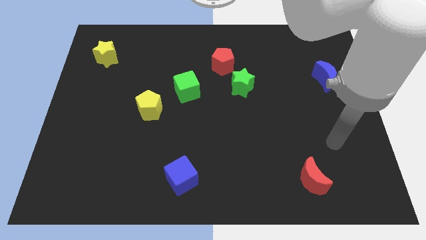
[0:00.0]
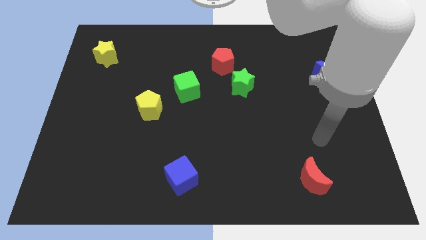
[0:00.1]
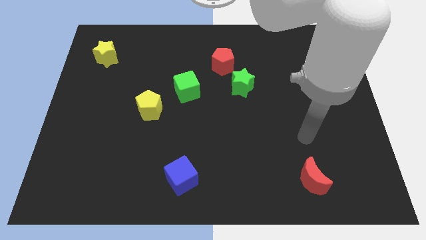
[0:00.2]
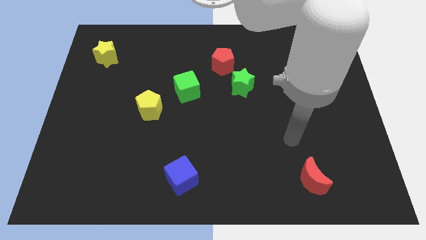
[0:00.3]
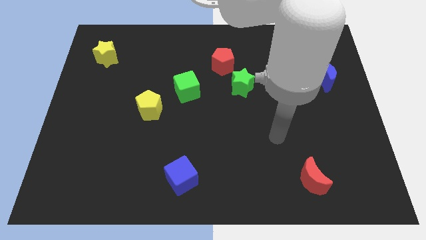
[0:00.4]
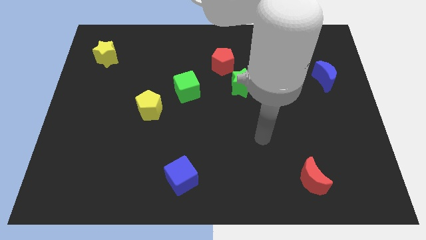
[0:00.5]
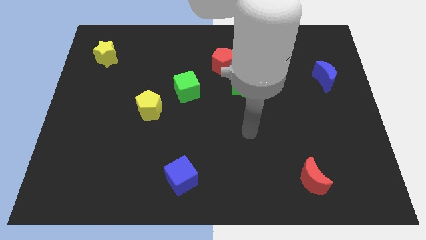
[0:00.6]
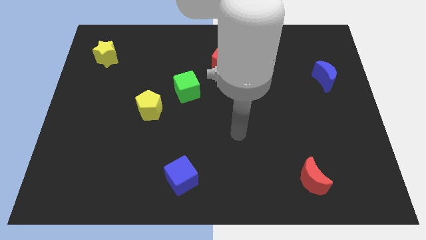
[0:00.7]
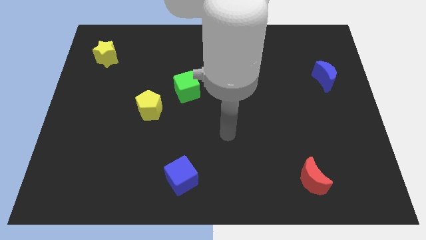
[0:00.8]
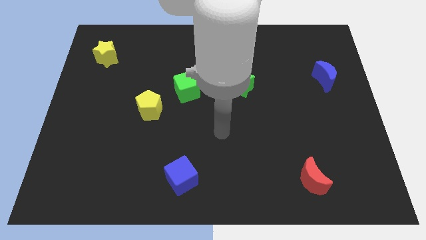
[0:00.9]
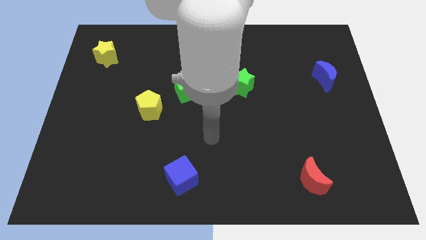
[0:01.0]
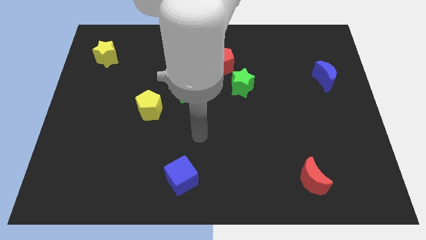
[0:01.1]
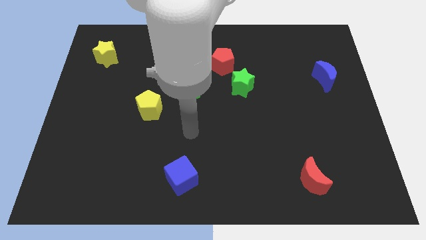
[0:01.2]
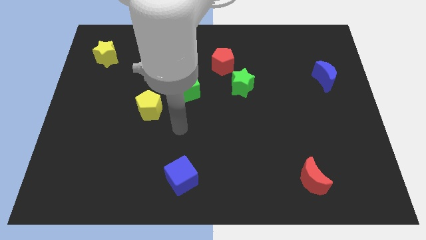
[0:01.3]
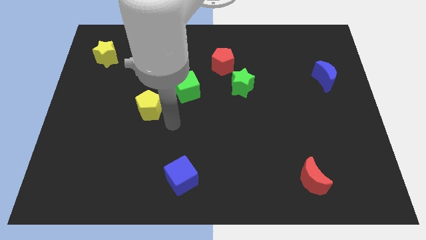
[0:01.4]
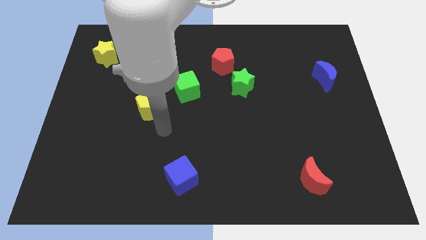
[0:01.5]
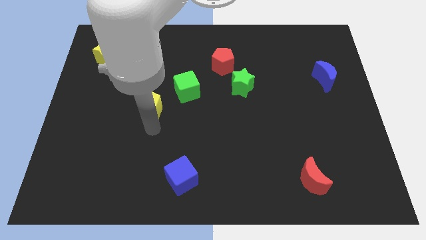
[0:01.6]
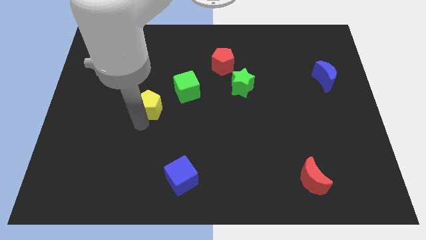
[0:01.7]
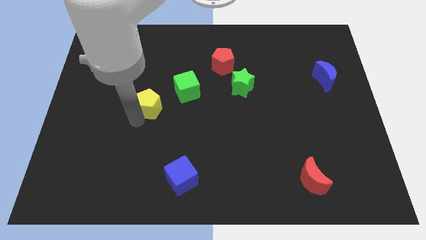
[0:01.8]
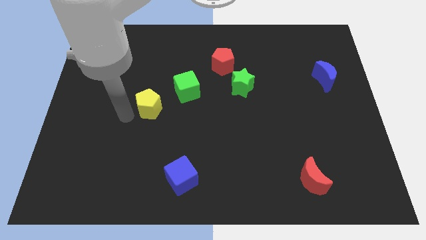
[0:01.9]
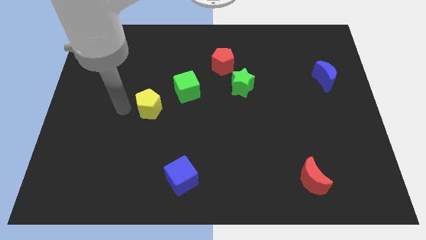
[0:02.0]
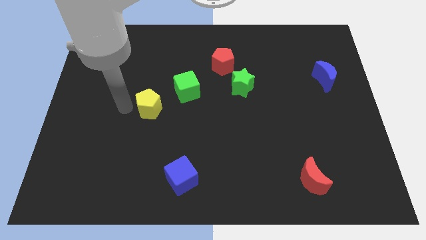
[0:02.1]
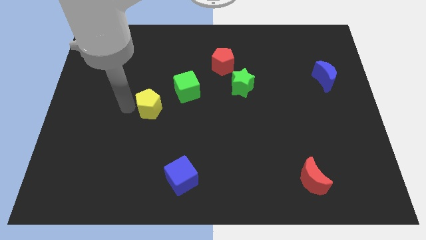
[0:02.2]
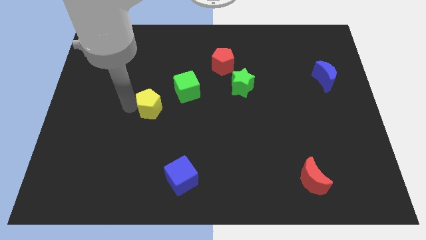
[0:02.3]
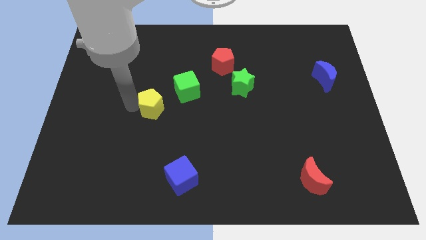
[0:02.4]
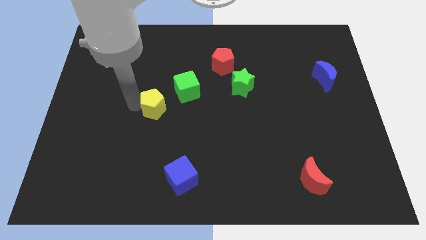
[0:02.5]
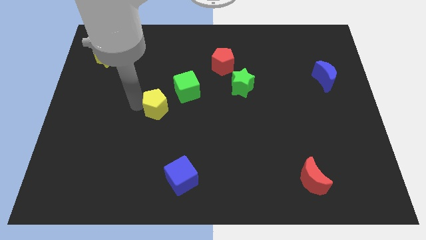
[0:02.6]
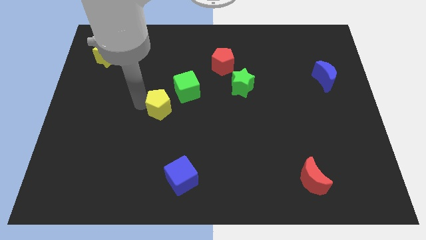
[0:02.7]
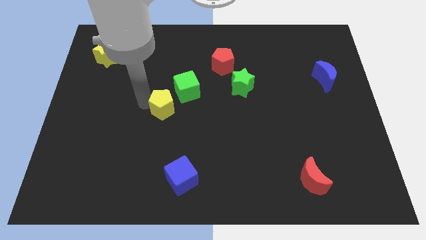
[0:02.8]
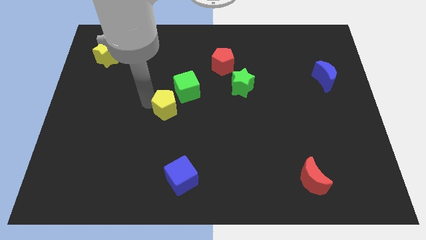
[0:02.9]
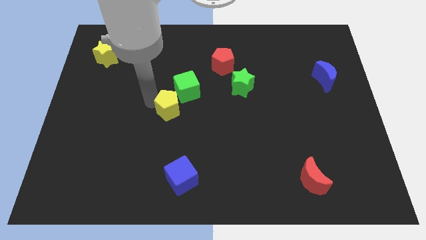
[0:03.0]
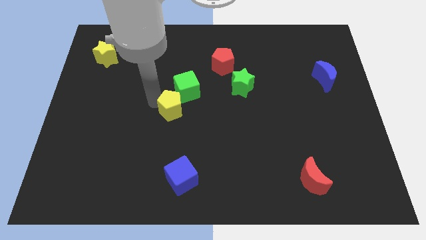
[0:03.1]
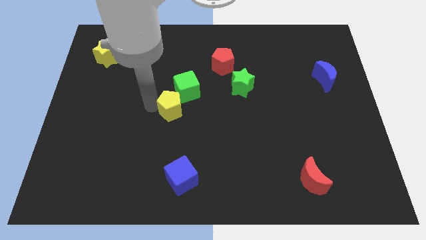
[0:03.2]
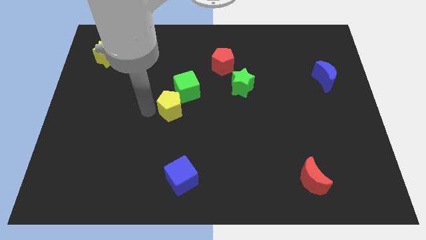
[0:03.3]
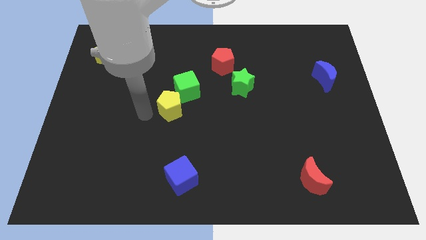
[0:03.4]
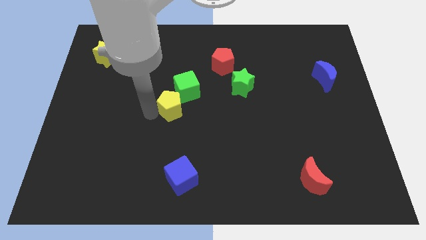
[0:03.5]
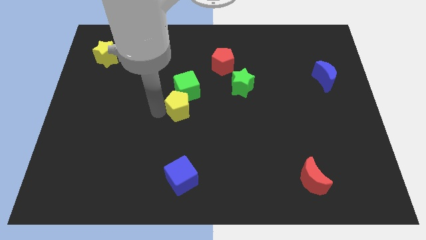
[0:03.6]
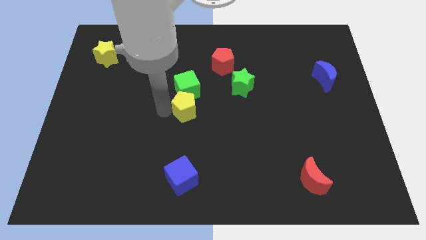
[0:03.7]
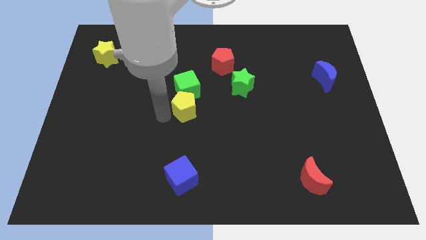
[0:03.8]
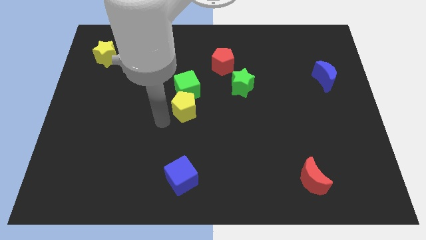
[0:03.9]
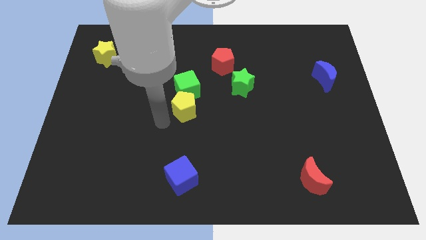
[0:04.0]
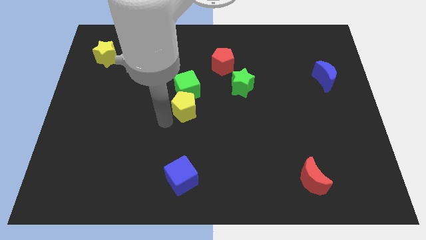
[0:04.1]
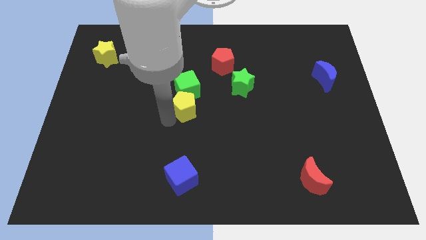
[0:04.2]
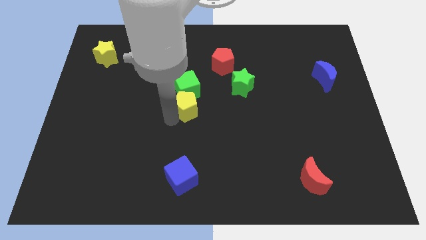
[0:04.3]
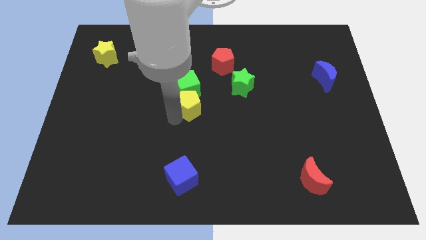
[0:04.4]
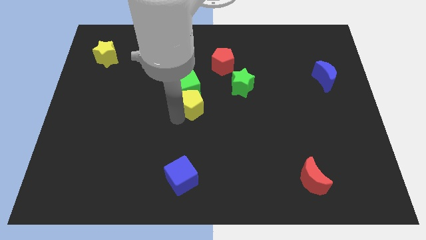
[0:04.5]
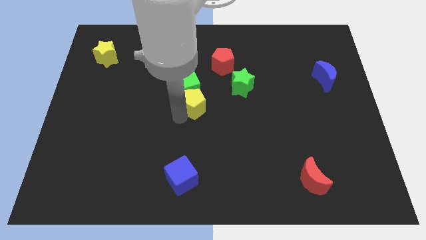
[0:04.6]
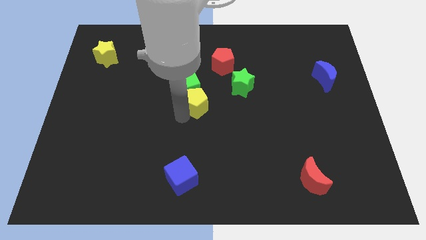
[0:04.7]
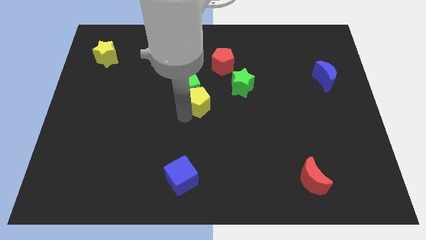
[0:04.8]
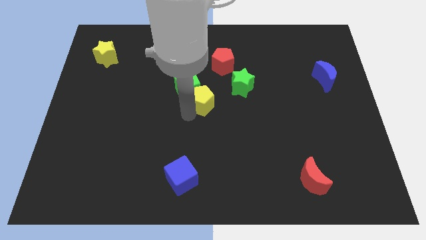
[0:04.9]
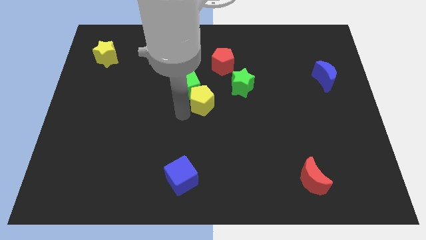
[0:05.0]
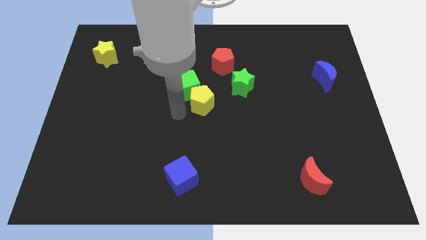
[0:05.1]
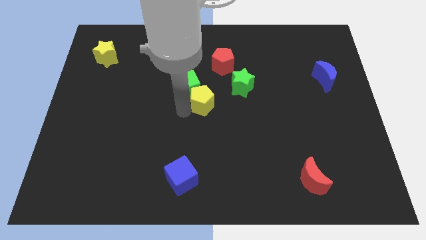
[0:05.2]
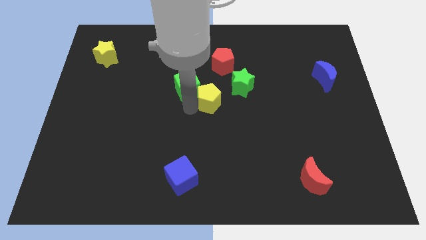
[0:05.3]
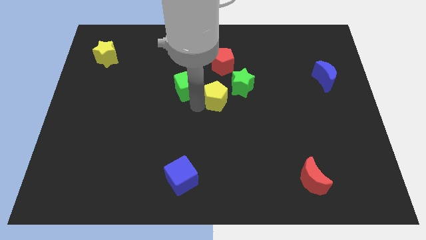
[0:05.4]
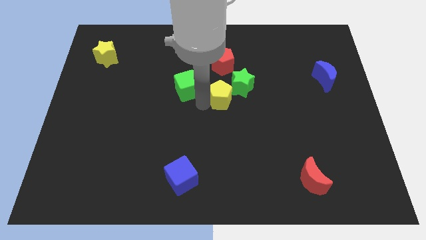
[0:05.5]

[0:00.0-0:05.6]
slide the yellow pentagon towards the green star

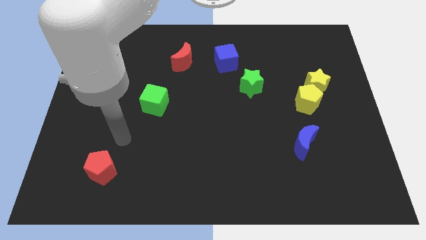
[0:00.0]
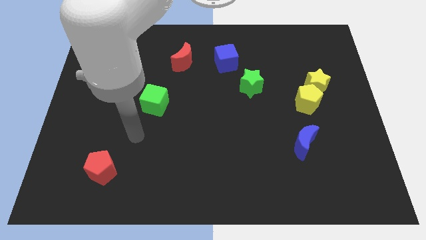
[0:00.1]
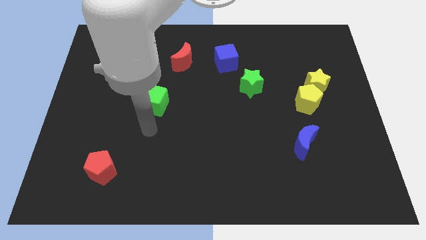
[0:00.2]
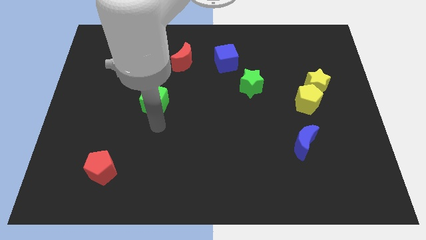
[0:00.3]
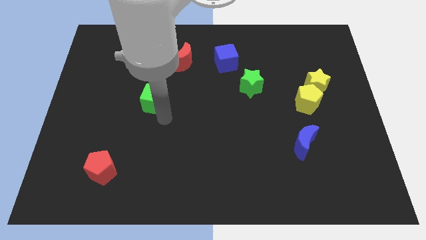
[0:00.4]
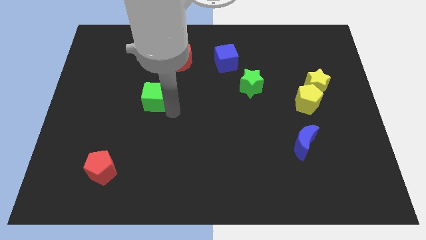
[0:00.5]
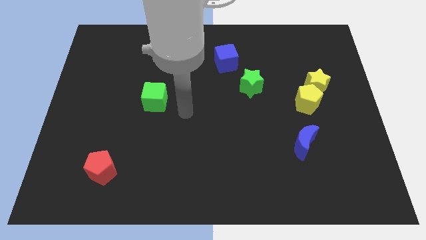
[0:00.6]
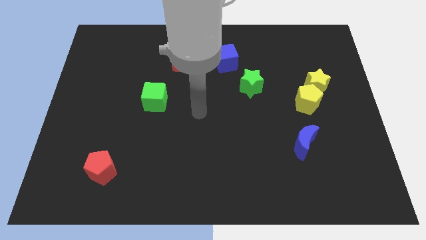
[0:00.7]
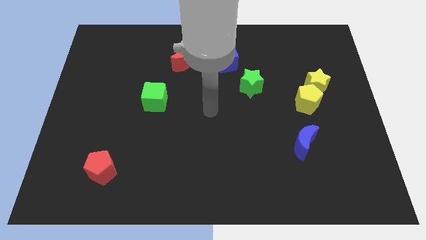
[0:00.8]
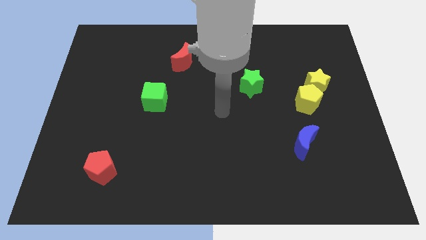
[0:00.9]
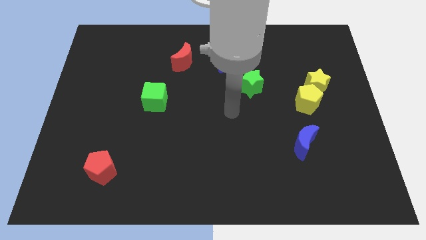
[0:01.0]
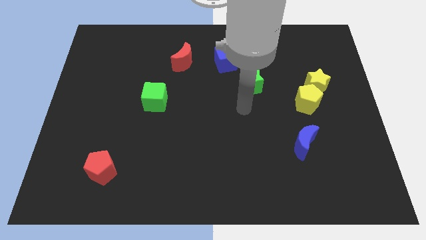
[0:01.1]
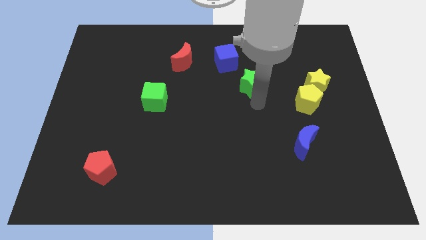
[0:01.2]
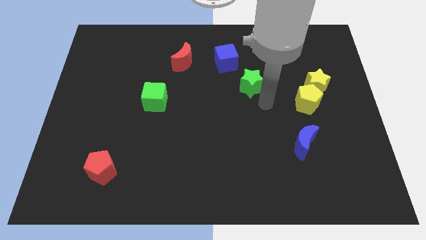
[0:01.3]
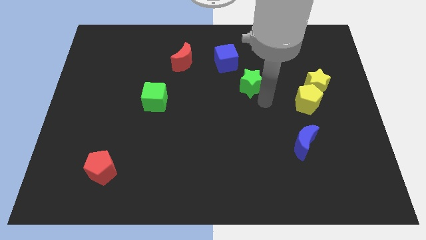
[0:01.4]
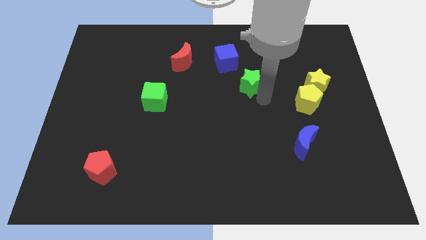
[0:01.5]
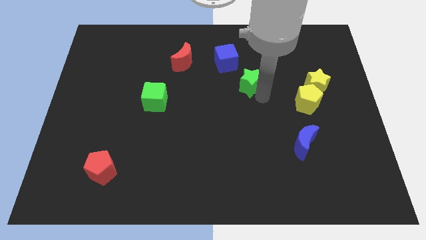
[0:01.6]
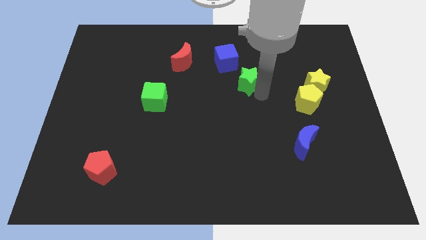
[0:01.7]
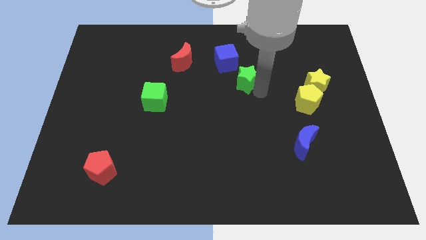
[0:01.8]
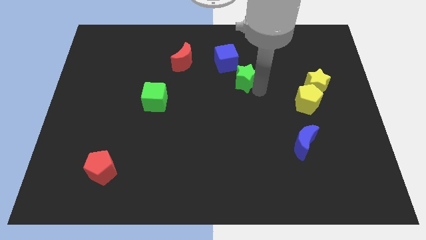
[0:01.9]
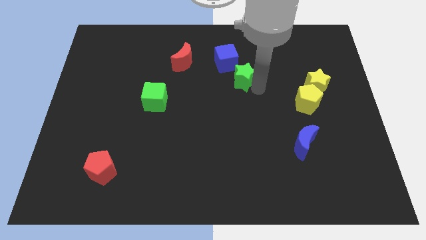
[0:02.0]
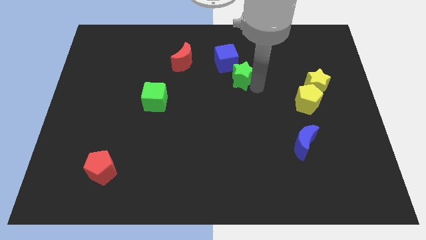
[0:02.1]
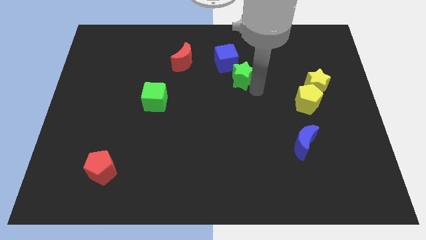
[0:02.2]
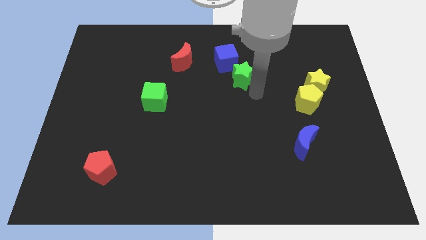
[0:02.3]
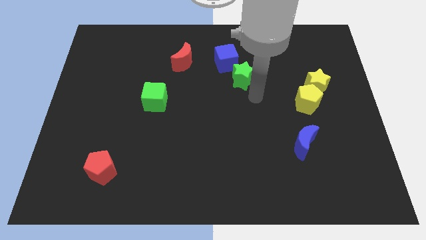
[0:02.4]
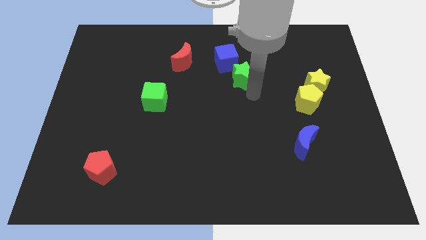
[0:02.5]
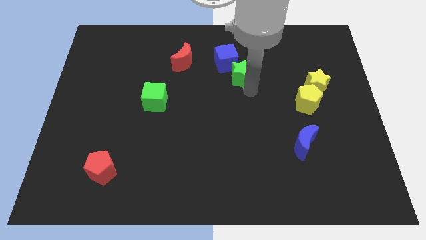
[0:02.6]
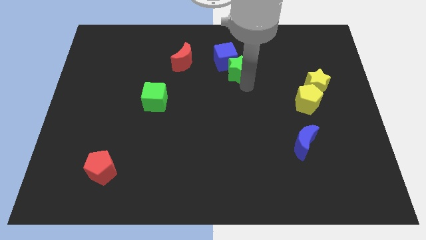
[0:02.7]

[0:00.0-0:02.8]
put the green star towards the blue cube
